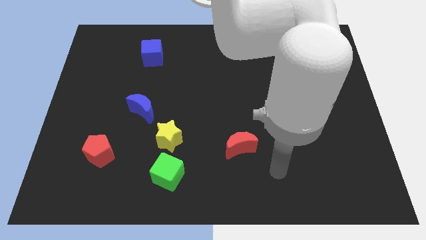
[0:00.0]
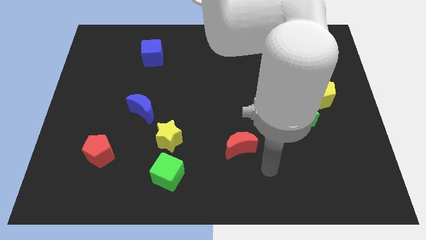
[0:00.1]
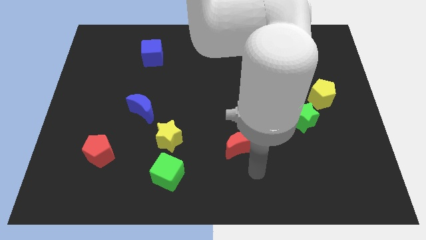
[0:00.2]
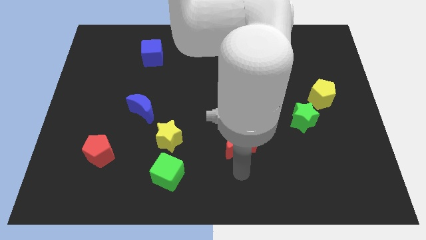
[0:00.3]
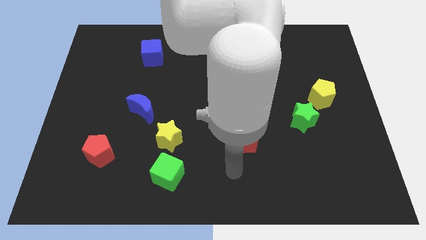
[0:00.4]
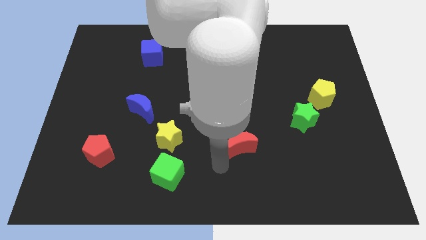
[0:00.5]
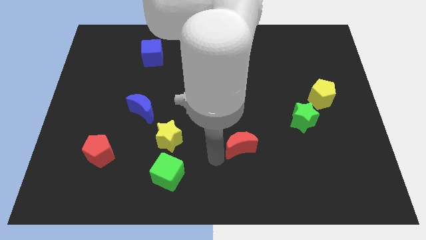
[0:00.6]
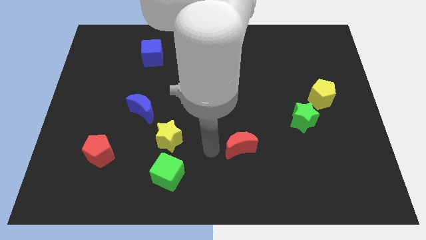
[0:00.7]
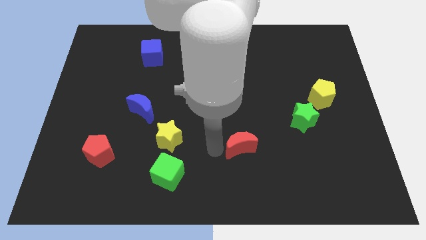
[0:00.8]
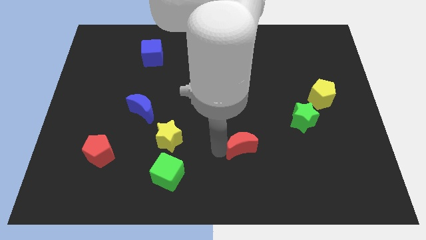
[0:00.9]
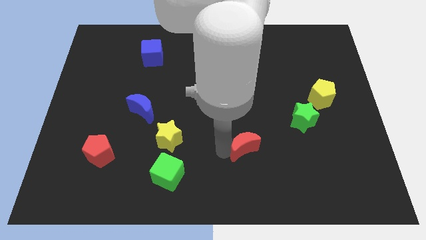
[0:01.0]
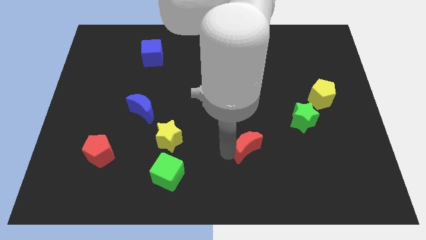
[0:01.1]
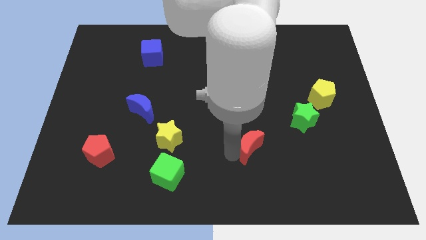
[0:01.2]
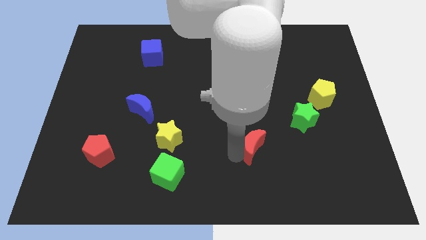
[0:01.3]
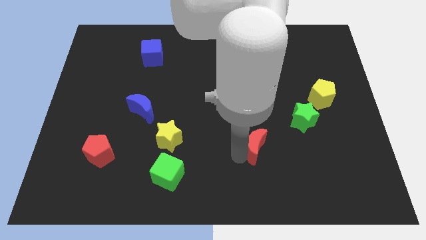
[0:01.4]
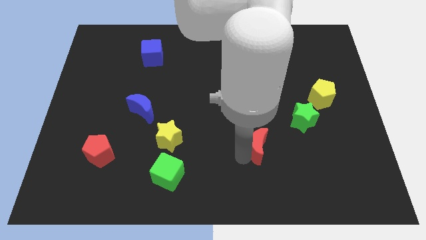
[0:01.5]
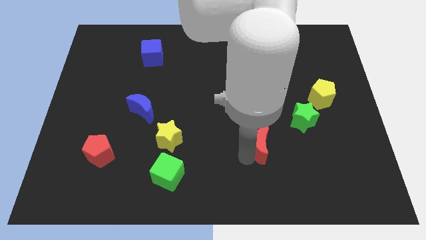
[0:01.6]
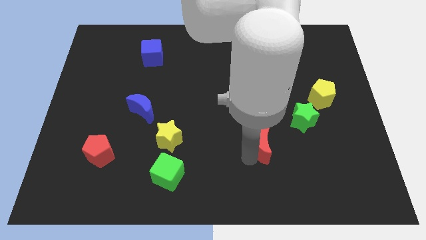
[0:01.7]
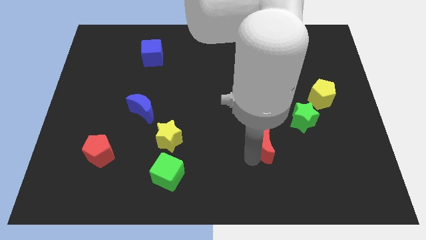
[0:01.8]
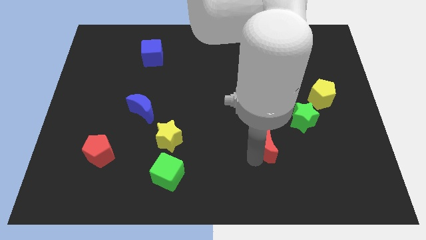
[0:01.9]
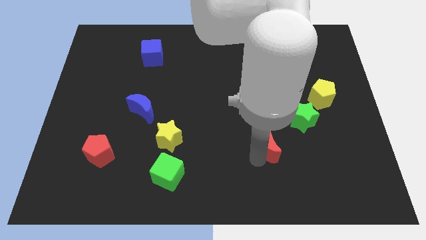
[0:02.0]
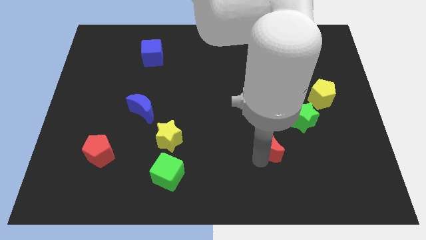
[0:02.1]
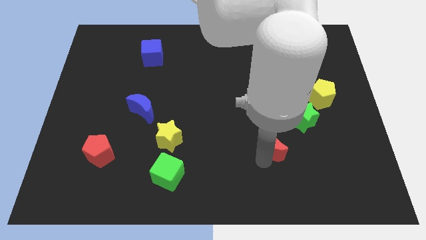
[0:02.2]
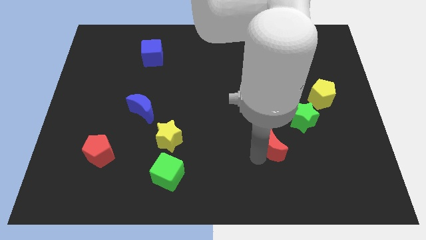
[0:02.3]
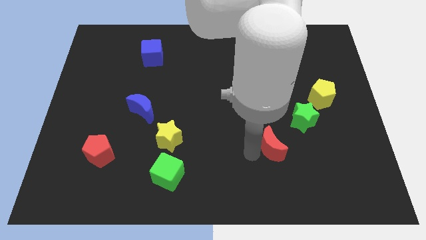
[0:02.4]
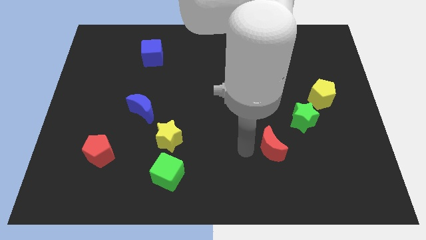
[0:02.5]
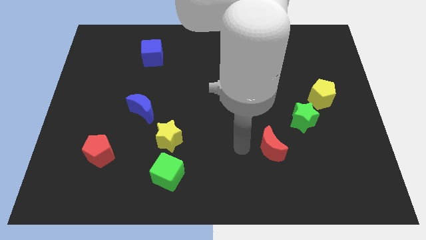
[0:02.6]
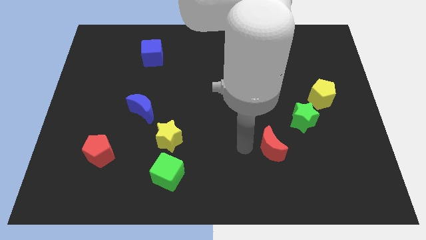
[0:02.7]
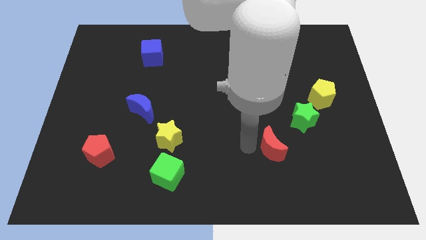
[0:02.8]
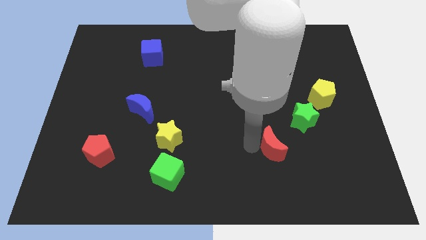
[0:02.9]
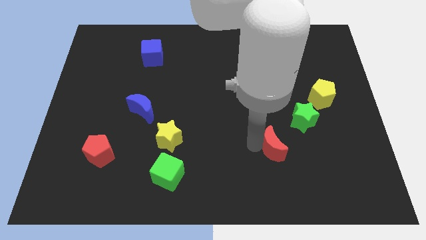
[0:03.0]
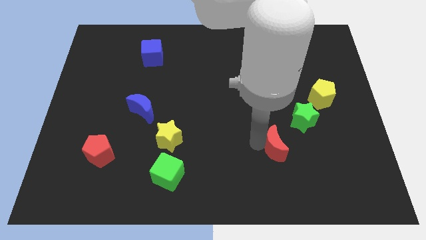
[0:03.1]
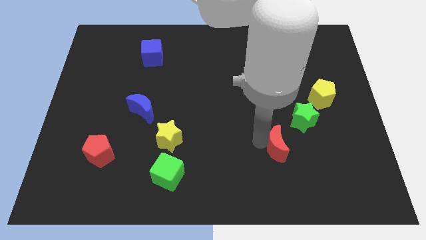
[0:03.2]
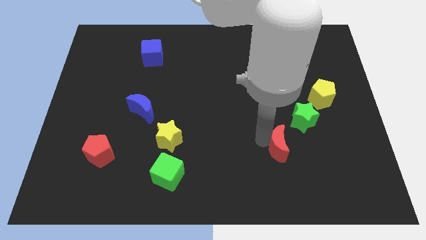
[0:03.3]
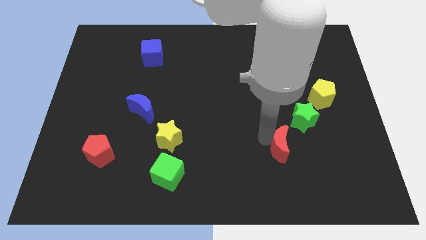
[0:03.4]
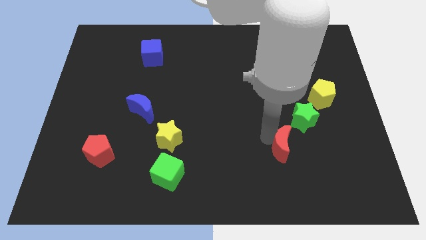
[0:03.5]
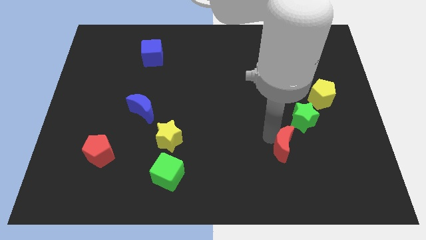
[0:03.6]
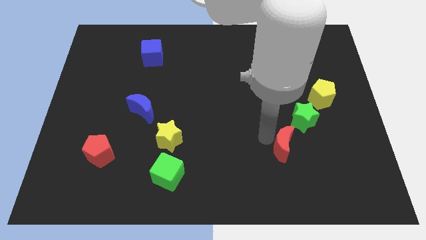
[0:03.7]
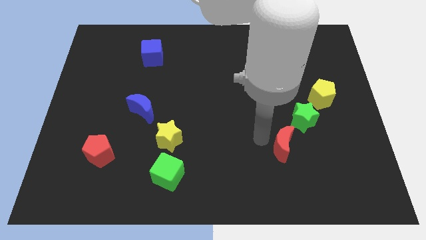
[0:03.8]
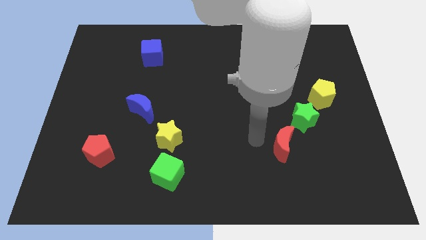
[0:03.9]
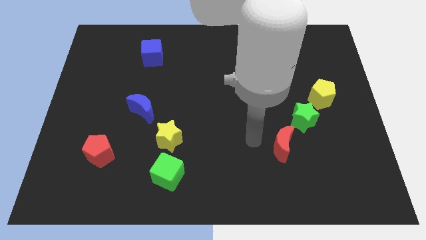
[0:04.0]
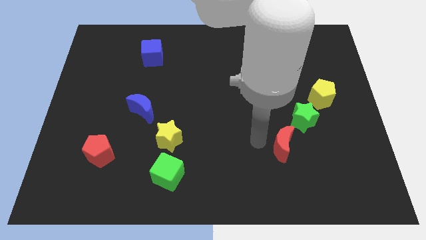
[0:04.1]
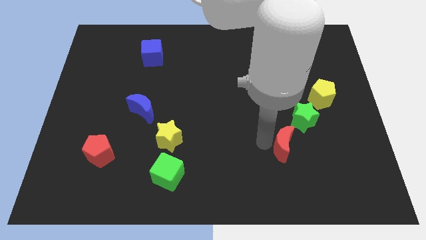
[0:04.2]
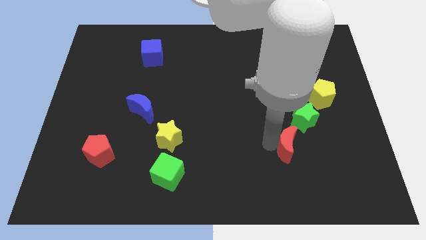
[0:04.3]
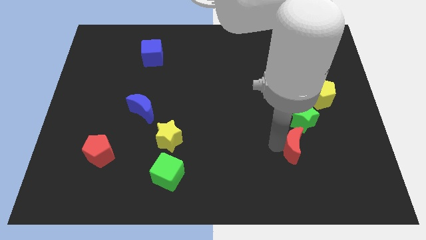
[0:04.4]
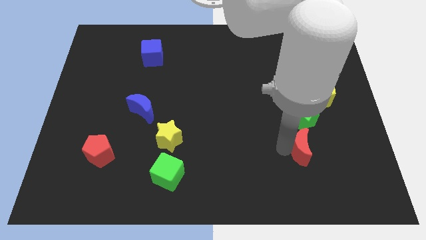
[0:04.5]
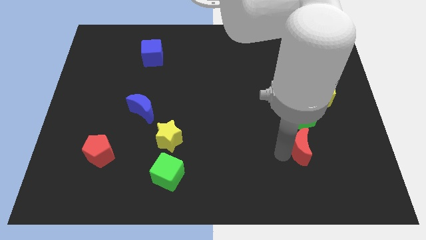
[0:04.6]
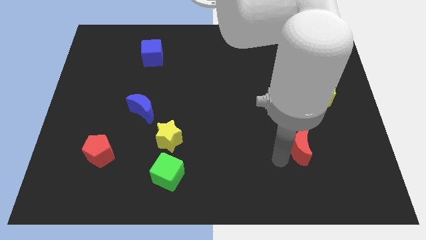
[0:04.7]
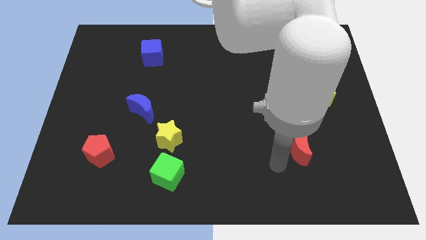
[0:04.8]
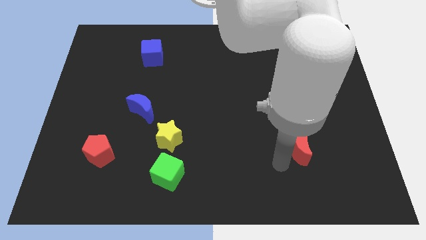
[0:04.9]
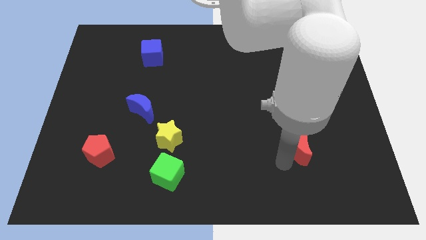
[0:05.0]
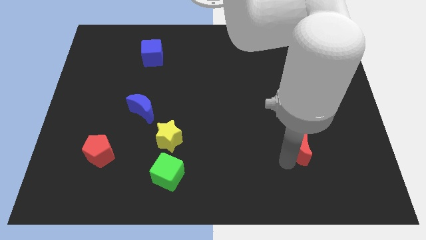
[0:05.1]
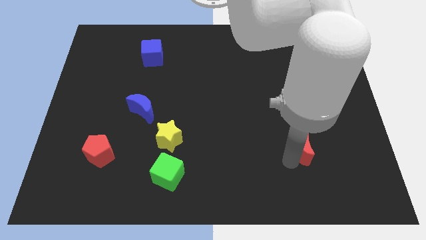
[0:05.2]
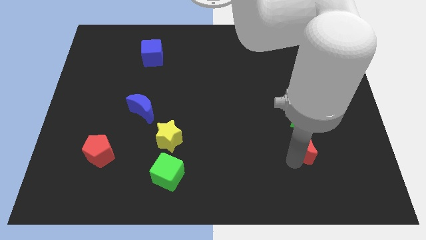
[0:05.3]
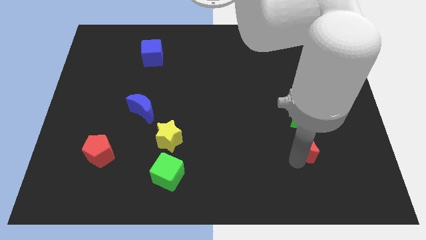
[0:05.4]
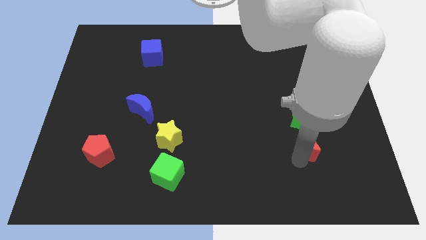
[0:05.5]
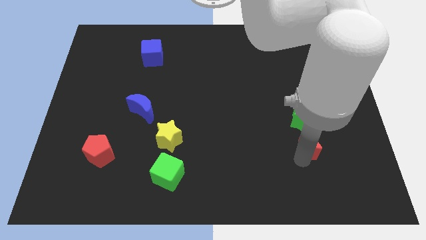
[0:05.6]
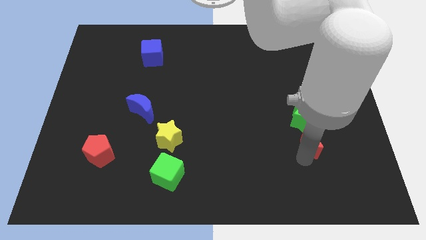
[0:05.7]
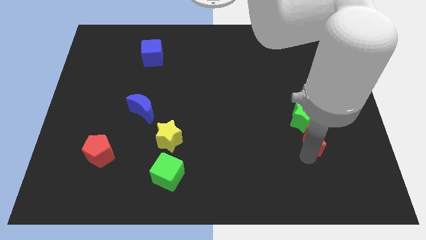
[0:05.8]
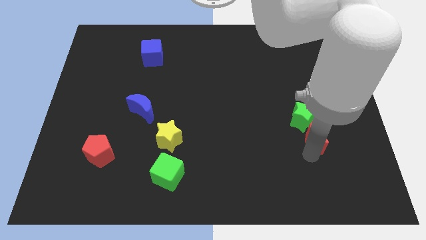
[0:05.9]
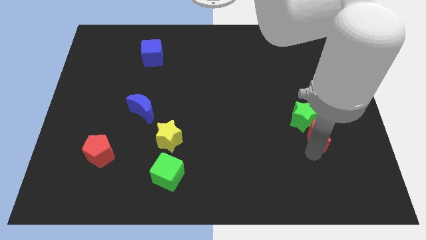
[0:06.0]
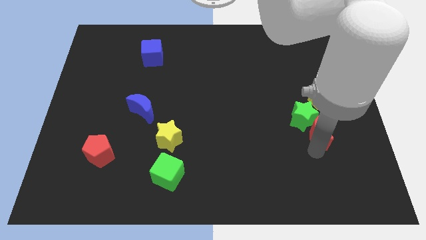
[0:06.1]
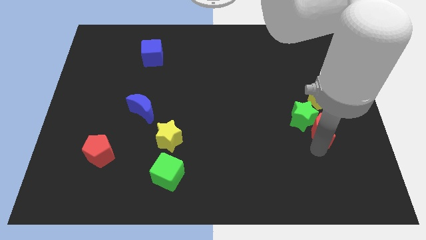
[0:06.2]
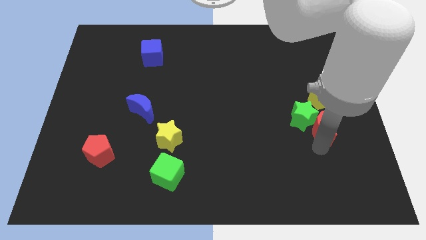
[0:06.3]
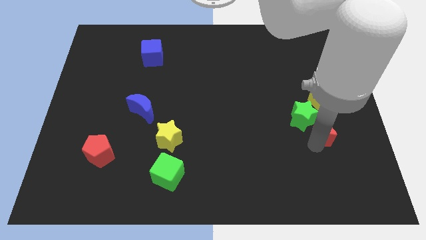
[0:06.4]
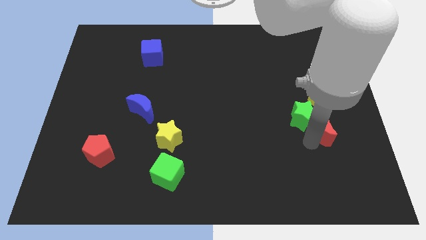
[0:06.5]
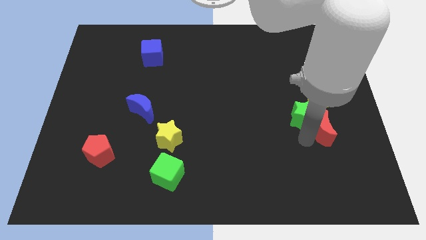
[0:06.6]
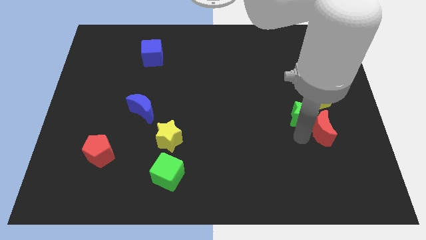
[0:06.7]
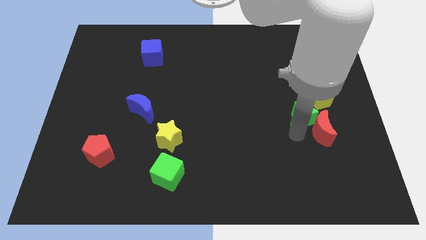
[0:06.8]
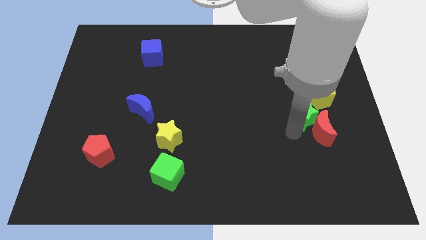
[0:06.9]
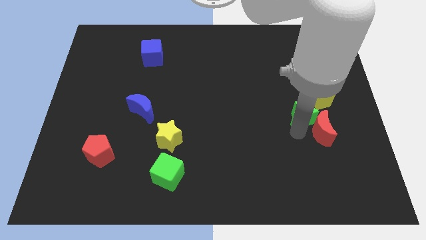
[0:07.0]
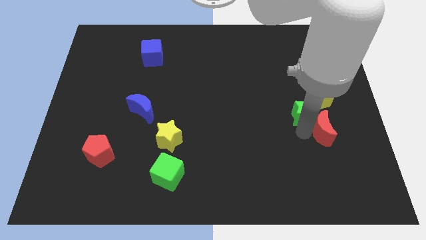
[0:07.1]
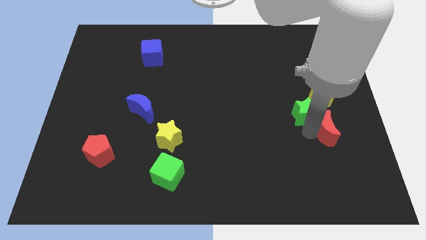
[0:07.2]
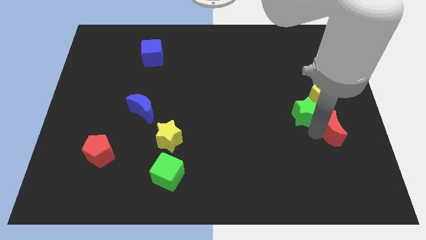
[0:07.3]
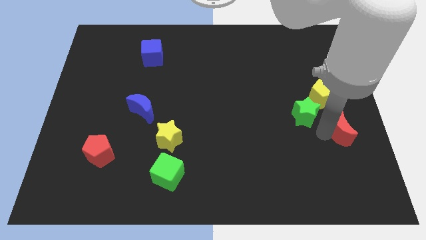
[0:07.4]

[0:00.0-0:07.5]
move the red moon to the right side of the board
